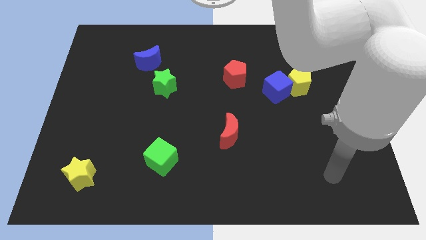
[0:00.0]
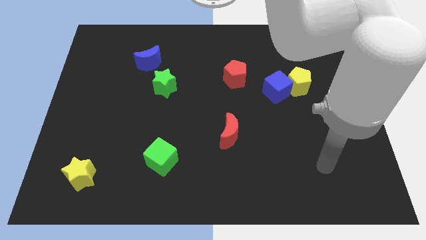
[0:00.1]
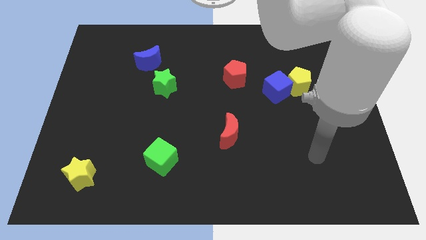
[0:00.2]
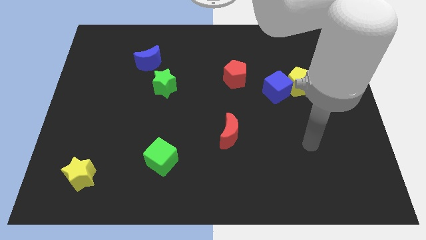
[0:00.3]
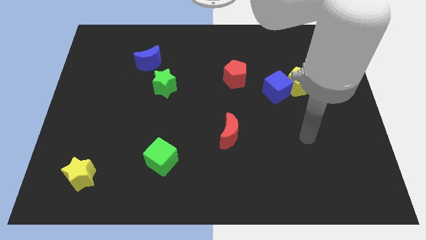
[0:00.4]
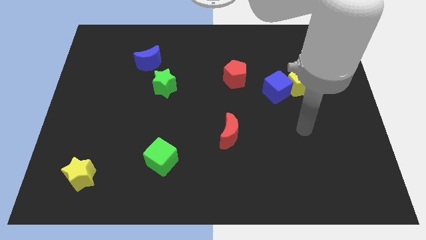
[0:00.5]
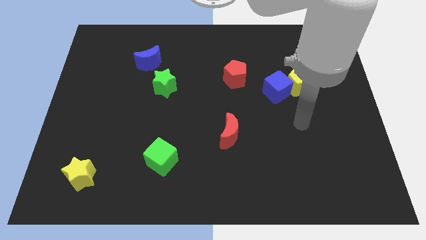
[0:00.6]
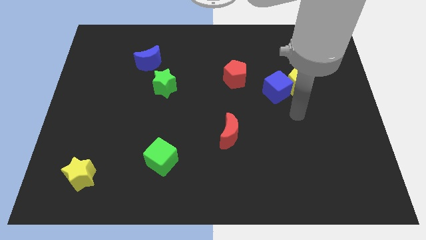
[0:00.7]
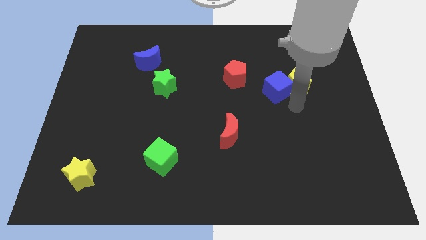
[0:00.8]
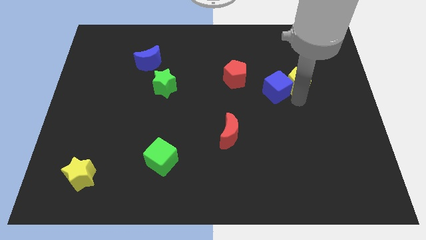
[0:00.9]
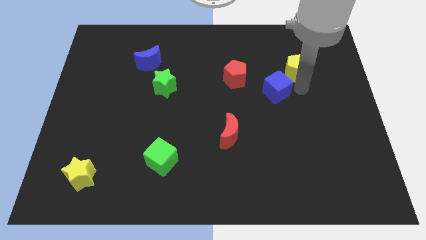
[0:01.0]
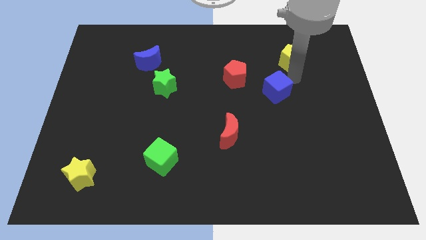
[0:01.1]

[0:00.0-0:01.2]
move the blue cube away from the yellow pentagon

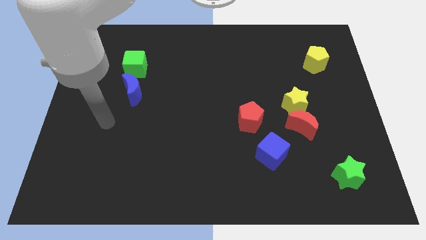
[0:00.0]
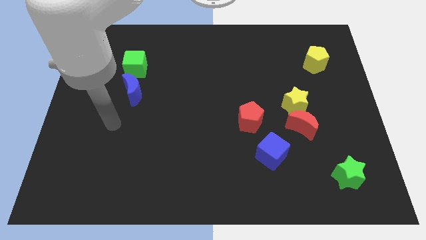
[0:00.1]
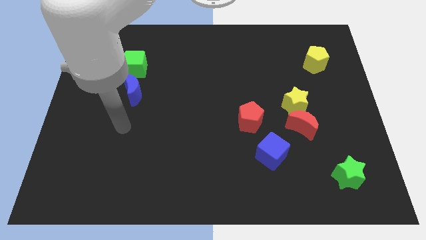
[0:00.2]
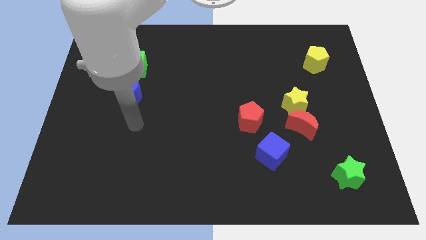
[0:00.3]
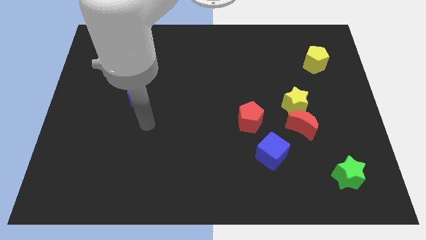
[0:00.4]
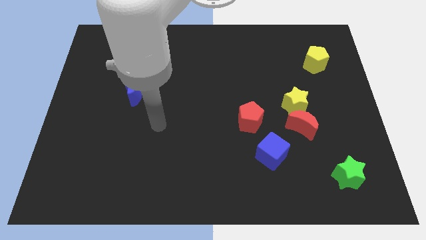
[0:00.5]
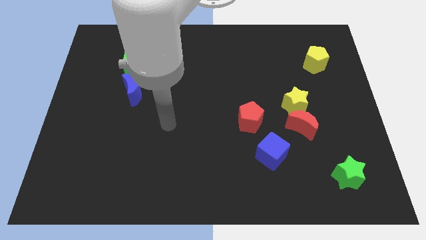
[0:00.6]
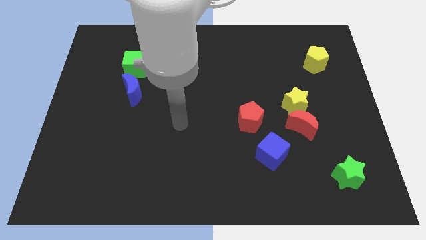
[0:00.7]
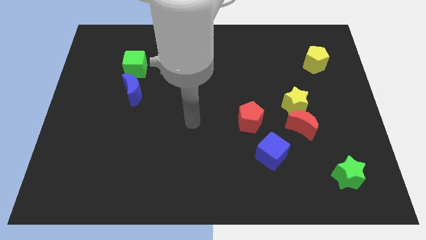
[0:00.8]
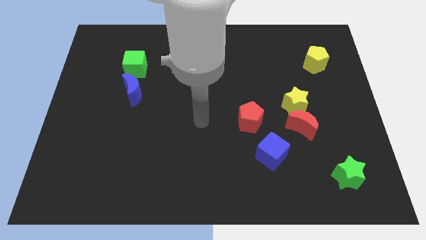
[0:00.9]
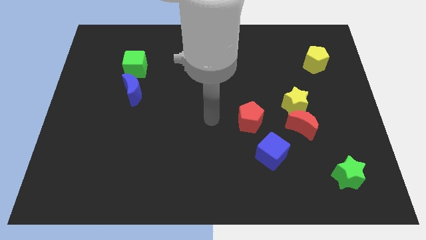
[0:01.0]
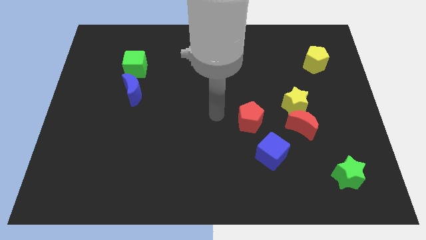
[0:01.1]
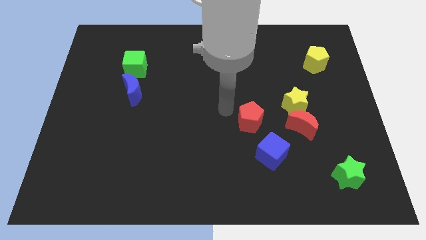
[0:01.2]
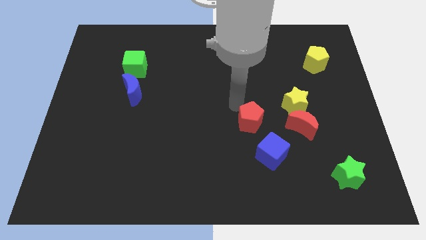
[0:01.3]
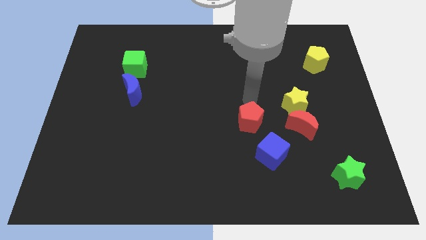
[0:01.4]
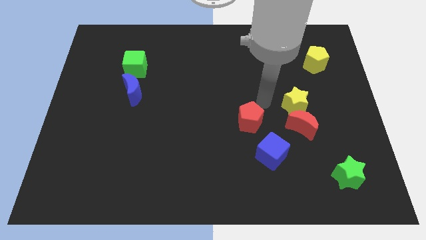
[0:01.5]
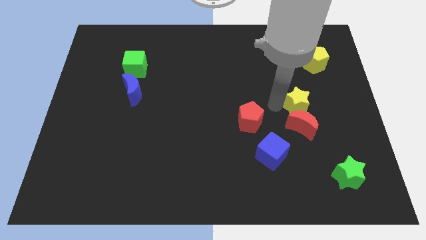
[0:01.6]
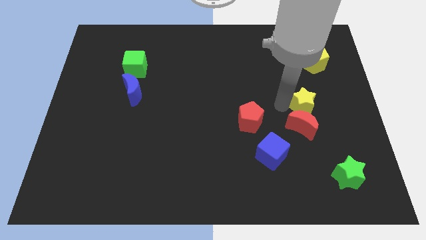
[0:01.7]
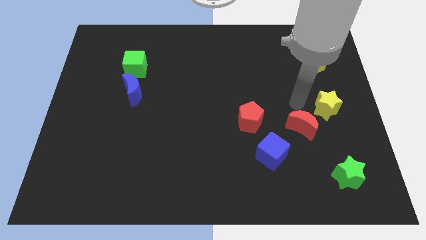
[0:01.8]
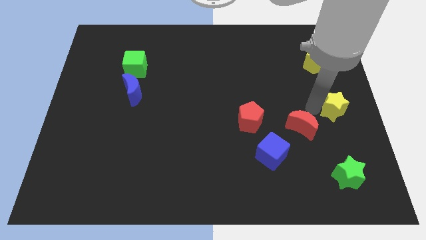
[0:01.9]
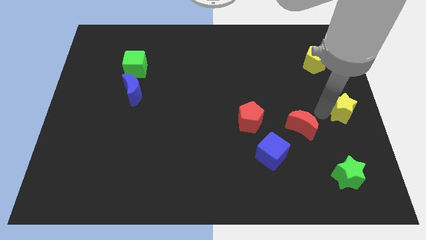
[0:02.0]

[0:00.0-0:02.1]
move the red moon away from the yellow star

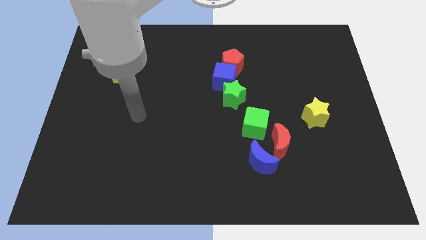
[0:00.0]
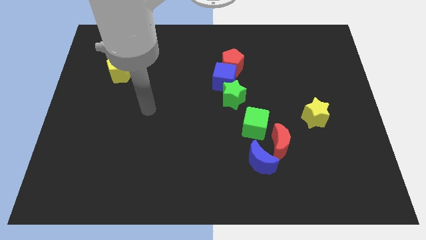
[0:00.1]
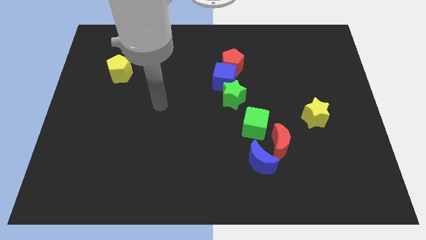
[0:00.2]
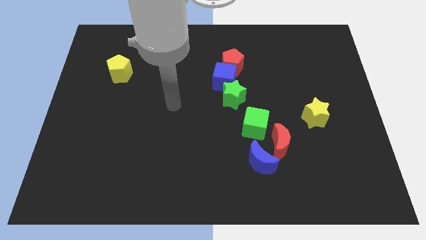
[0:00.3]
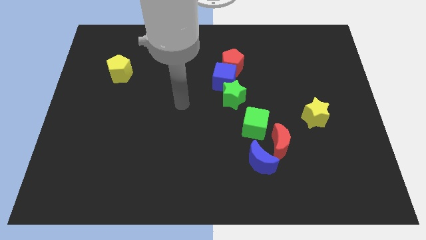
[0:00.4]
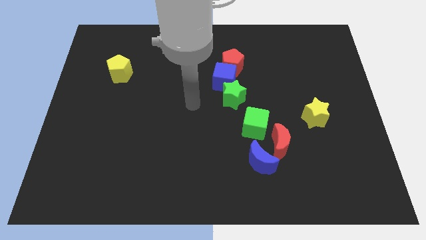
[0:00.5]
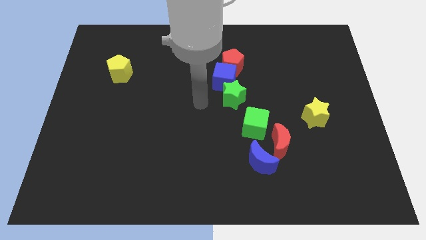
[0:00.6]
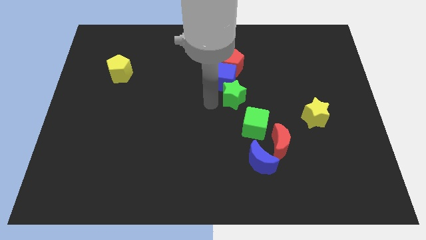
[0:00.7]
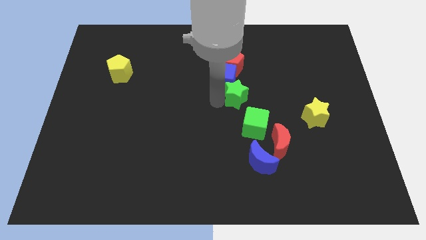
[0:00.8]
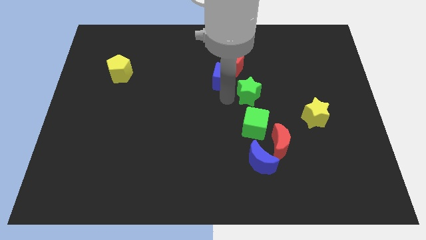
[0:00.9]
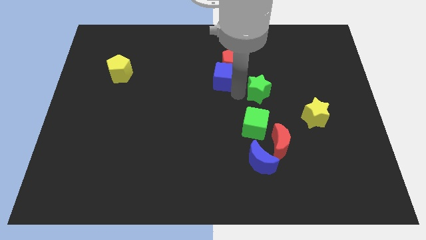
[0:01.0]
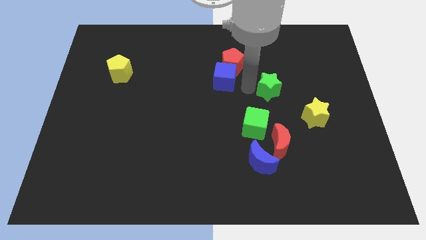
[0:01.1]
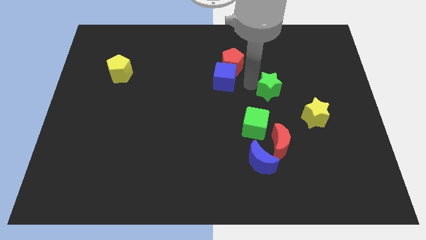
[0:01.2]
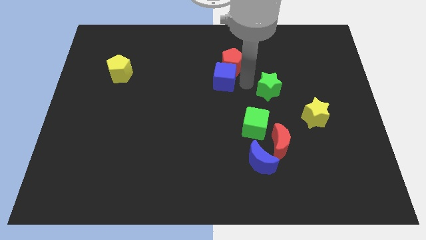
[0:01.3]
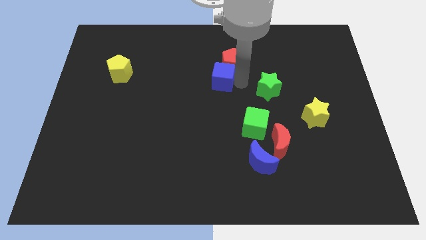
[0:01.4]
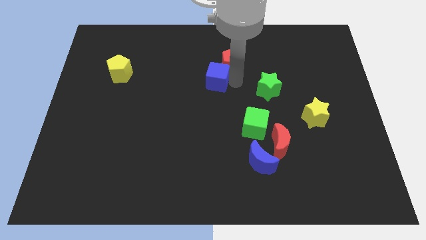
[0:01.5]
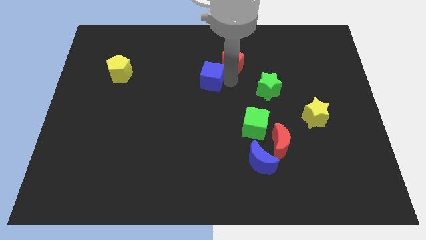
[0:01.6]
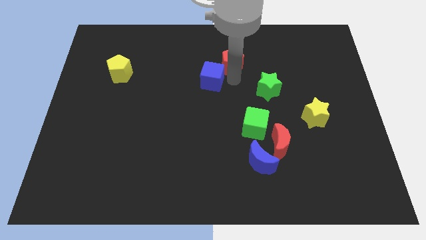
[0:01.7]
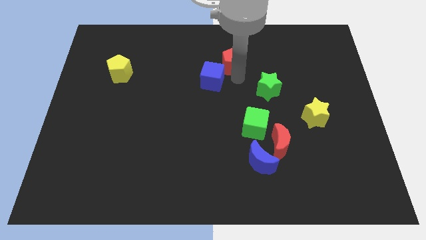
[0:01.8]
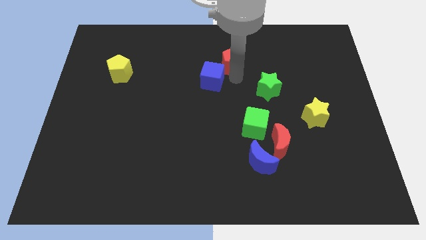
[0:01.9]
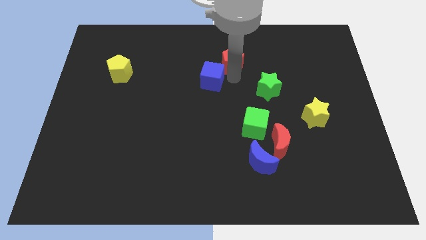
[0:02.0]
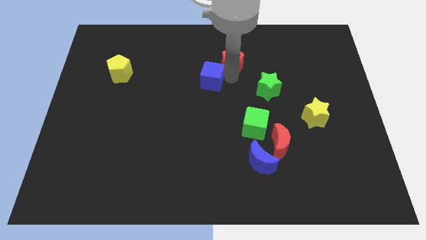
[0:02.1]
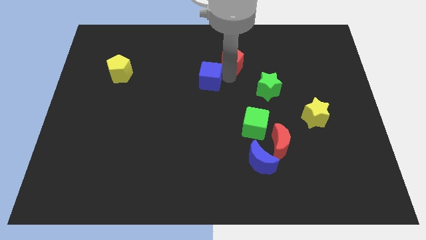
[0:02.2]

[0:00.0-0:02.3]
separate the blue cube from the red pentagon and green star

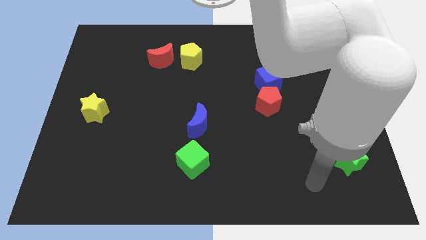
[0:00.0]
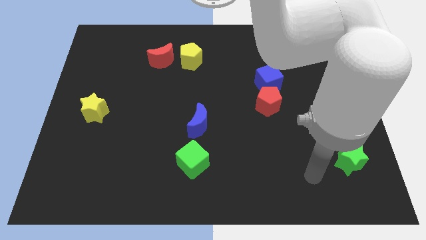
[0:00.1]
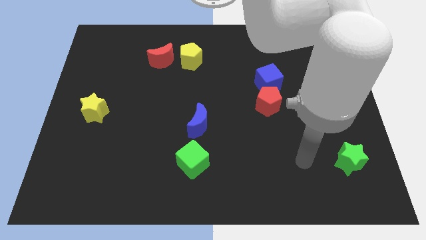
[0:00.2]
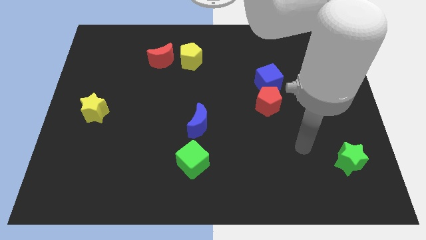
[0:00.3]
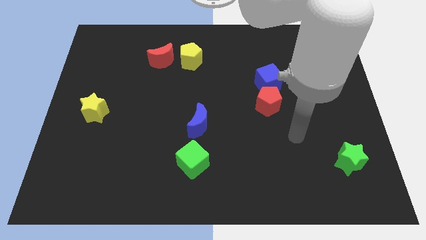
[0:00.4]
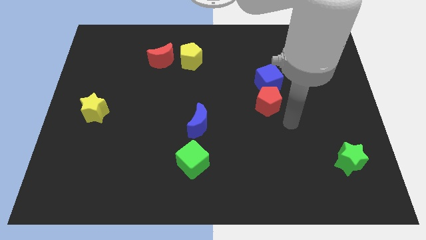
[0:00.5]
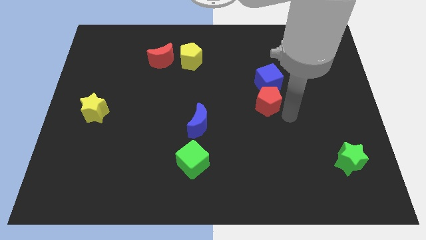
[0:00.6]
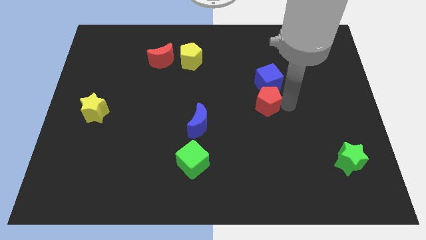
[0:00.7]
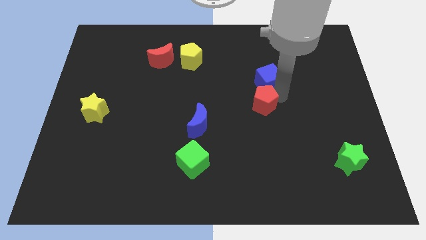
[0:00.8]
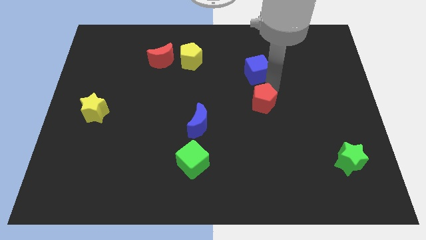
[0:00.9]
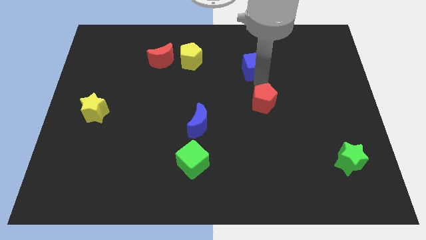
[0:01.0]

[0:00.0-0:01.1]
move the red pentagon away from the blue cube

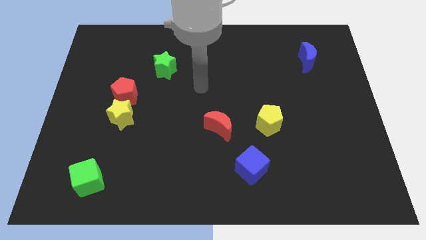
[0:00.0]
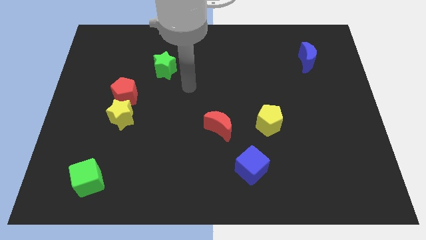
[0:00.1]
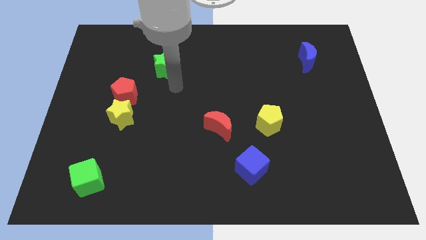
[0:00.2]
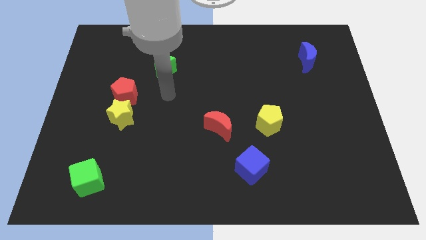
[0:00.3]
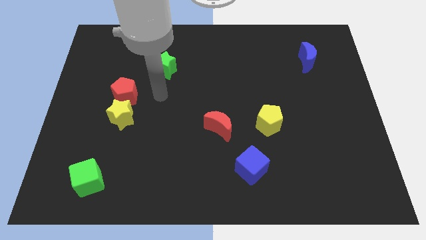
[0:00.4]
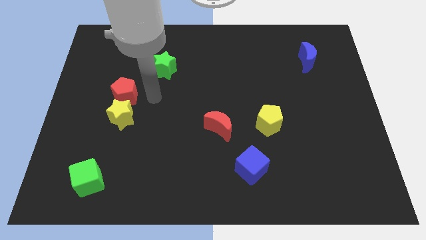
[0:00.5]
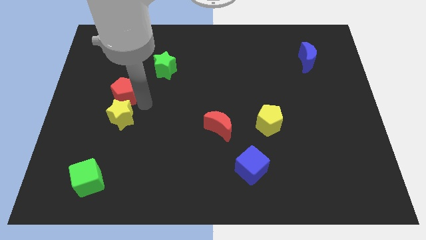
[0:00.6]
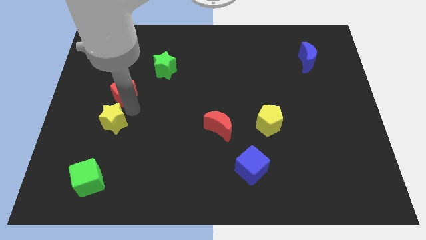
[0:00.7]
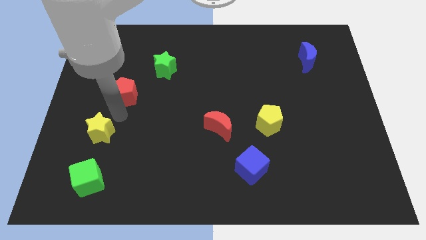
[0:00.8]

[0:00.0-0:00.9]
pull the red pentagon apart from the yellow star

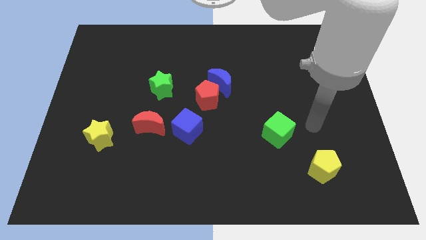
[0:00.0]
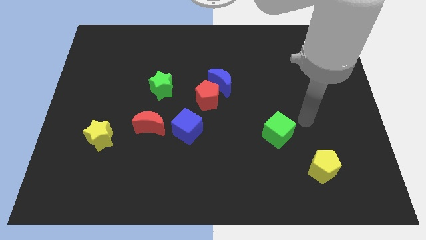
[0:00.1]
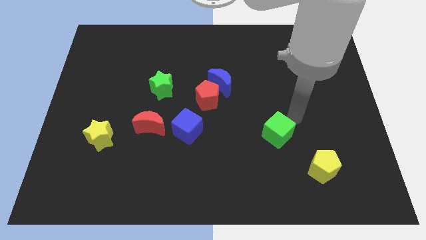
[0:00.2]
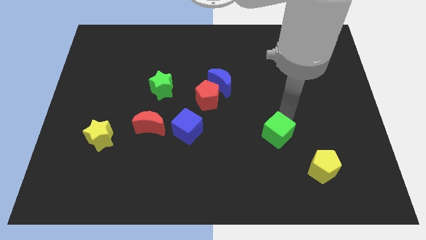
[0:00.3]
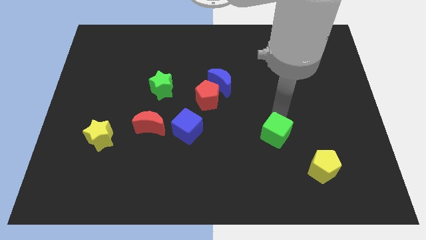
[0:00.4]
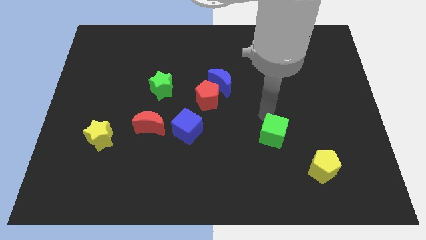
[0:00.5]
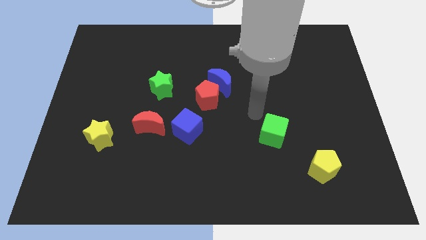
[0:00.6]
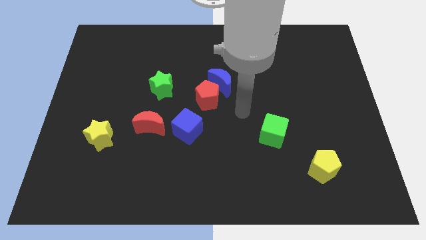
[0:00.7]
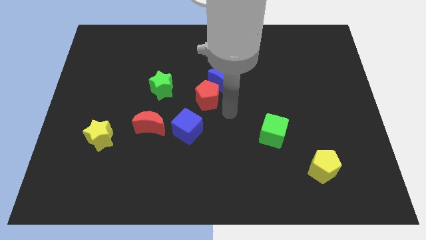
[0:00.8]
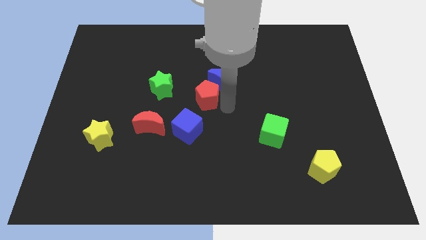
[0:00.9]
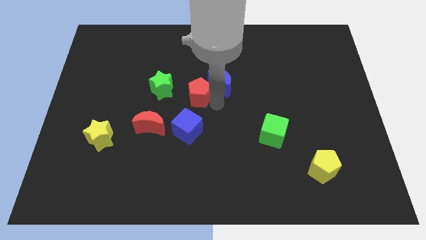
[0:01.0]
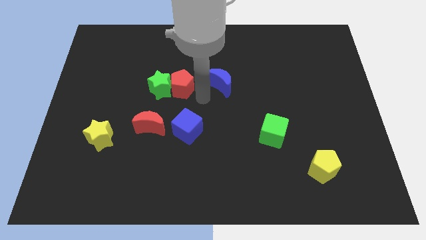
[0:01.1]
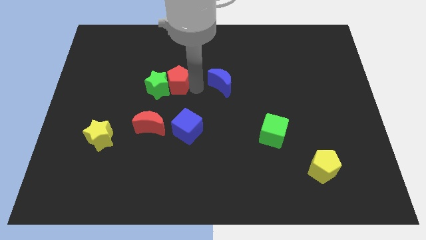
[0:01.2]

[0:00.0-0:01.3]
move the blue moon away from the red pentagon

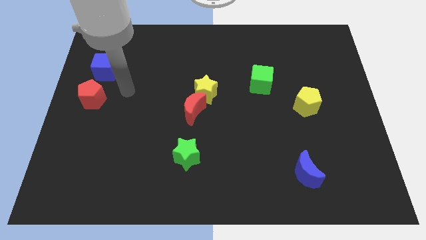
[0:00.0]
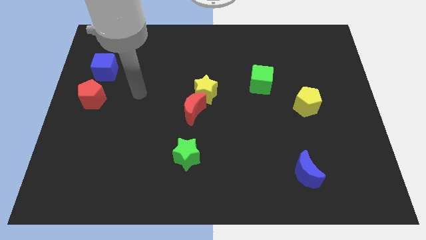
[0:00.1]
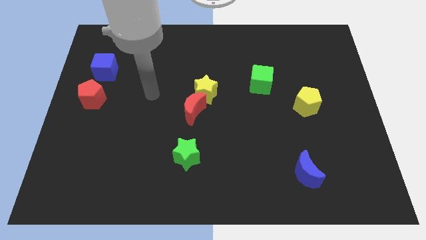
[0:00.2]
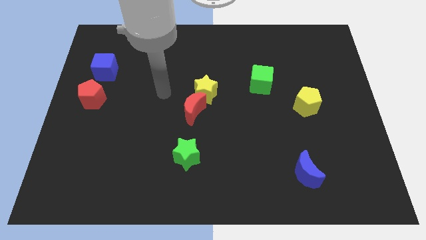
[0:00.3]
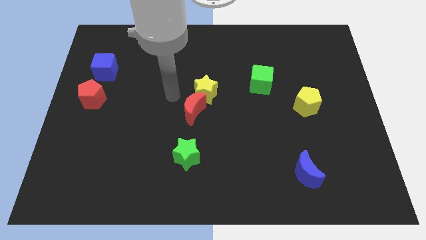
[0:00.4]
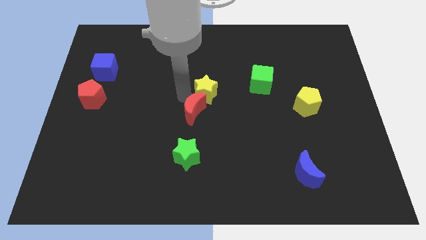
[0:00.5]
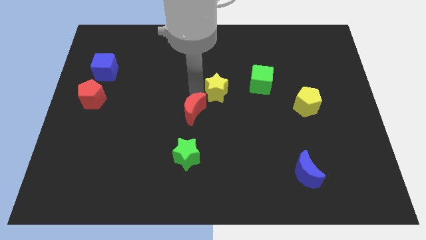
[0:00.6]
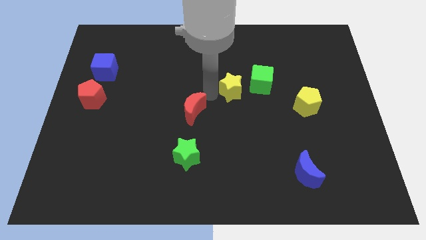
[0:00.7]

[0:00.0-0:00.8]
separate the red moon from the yellow star
